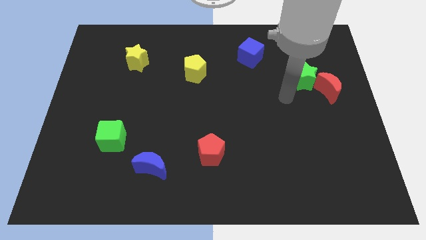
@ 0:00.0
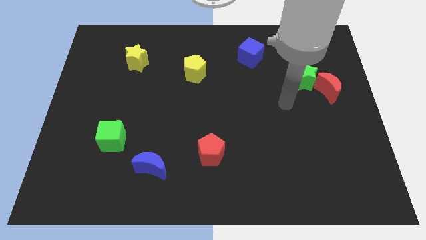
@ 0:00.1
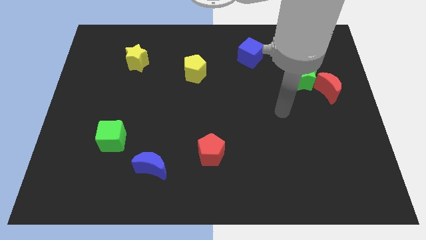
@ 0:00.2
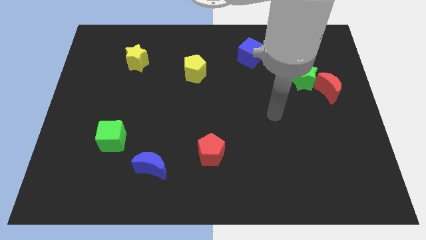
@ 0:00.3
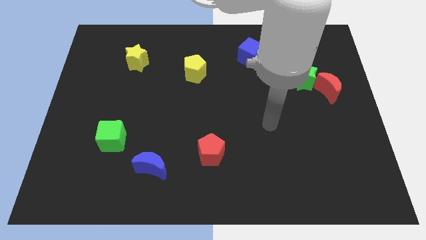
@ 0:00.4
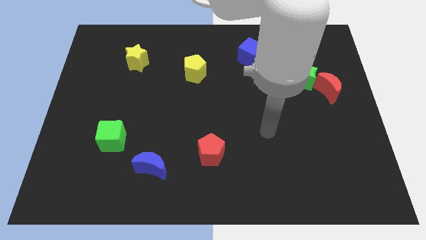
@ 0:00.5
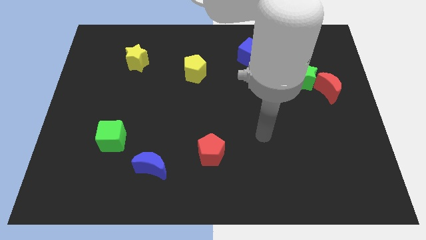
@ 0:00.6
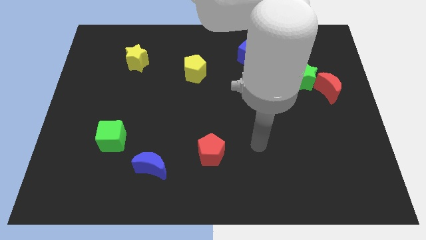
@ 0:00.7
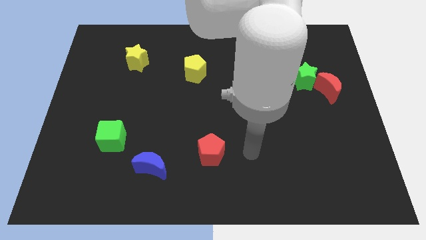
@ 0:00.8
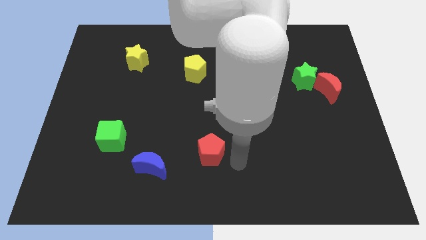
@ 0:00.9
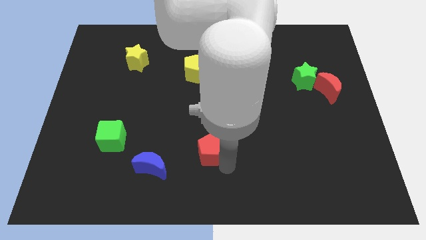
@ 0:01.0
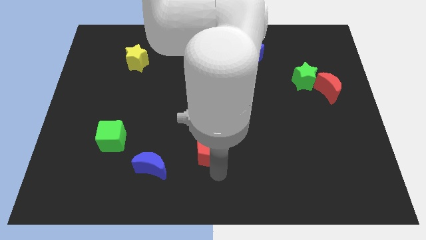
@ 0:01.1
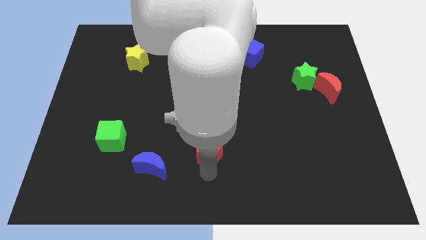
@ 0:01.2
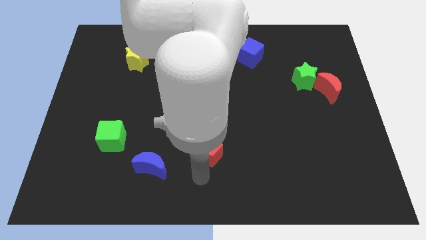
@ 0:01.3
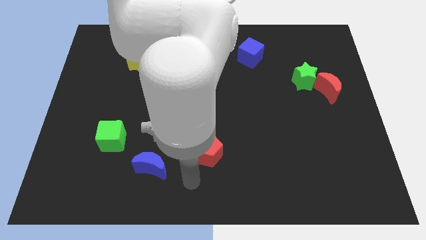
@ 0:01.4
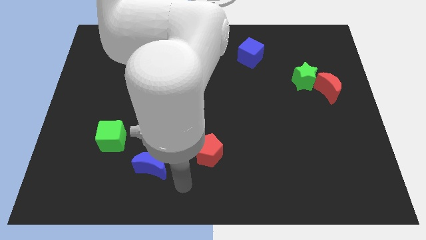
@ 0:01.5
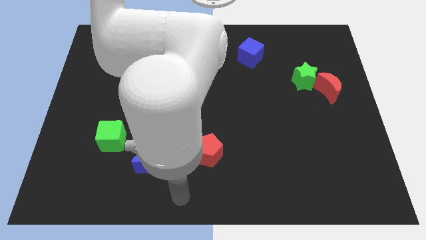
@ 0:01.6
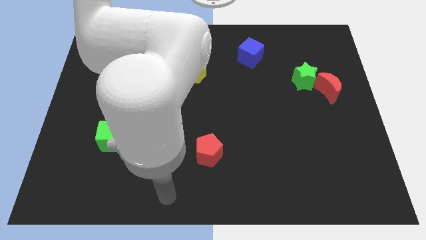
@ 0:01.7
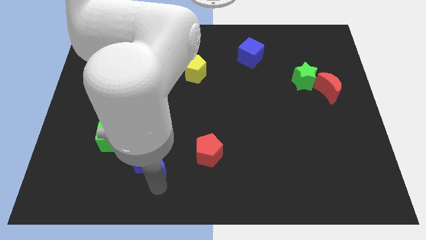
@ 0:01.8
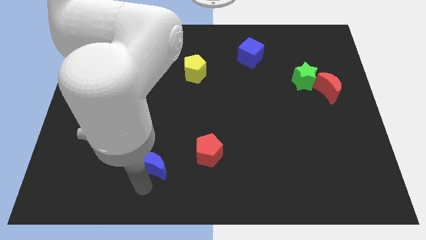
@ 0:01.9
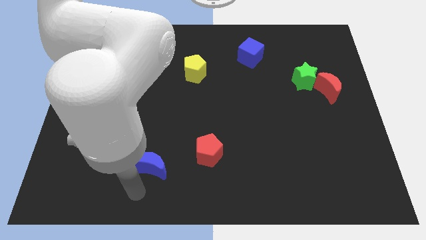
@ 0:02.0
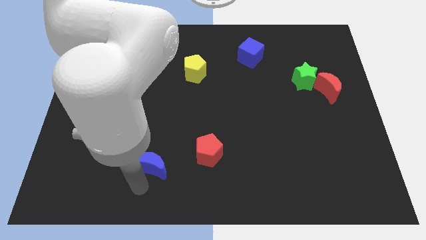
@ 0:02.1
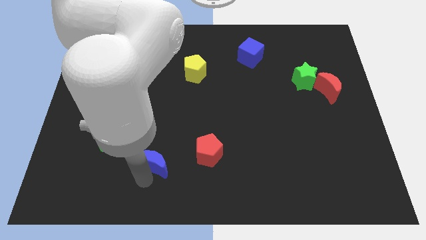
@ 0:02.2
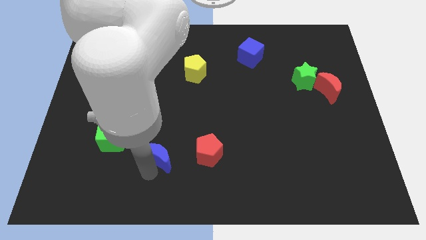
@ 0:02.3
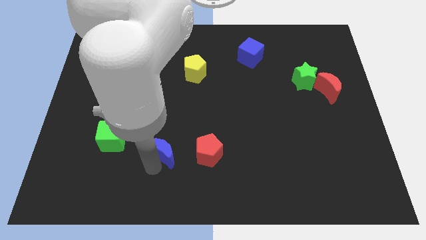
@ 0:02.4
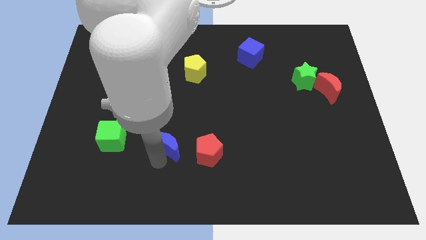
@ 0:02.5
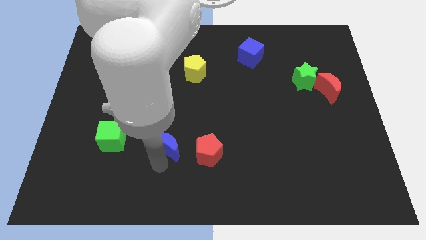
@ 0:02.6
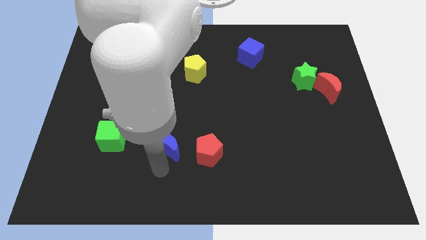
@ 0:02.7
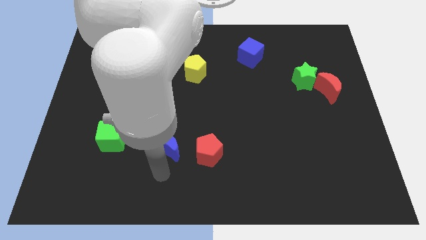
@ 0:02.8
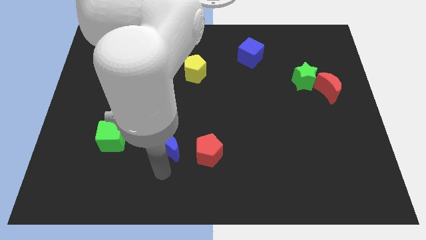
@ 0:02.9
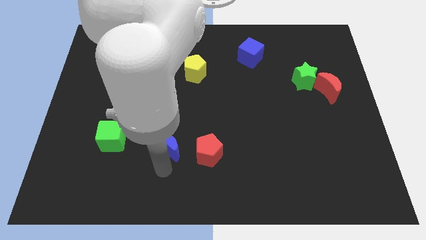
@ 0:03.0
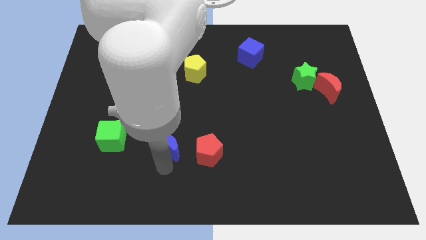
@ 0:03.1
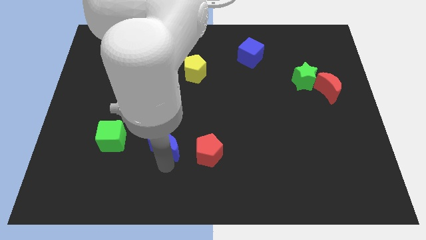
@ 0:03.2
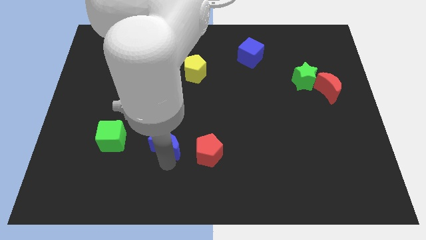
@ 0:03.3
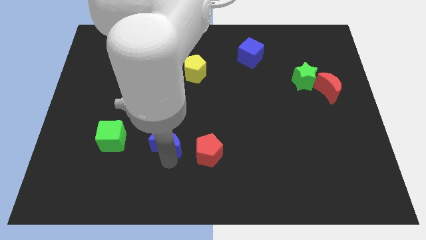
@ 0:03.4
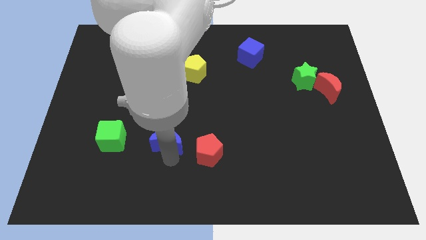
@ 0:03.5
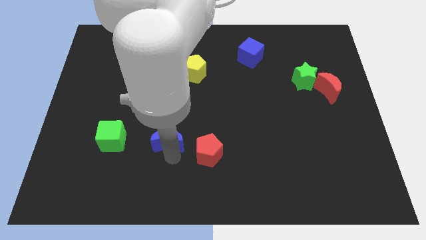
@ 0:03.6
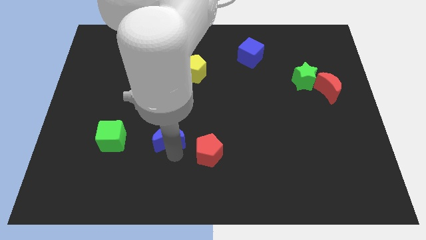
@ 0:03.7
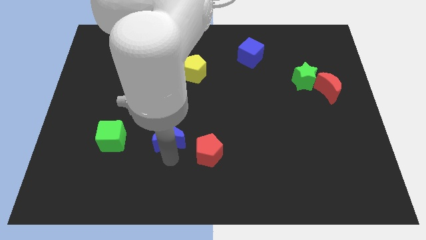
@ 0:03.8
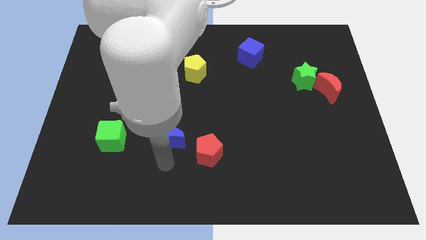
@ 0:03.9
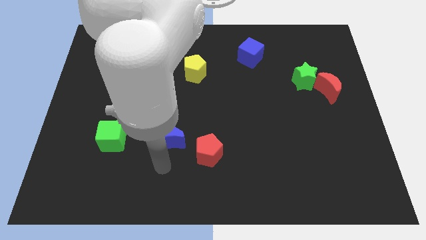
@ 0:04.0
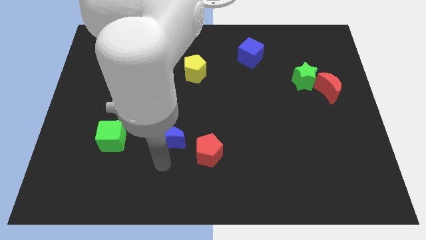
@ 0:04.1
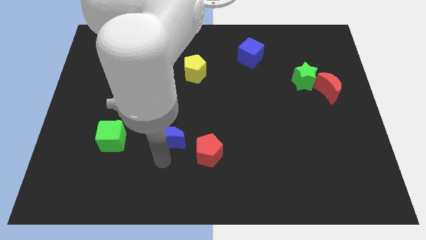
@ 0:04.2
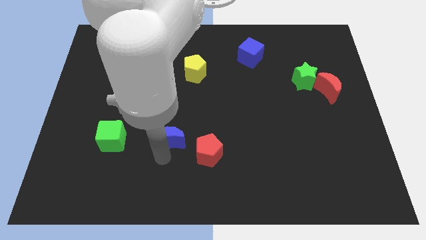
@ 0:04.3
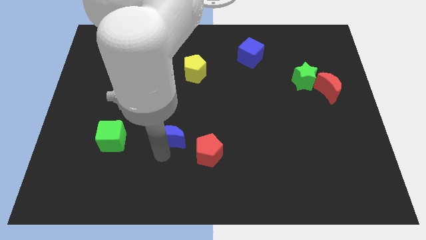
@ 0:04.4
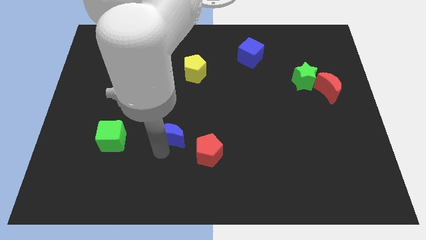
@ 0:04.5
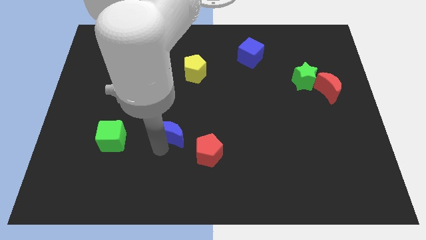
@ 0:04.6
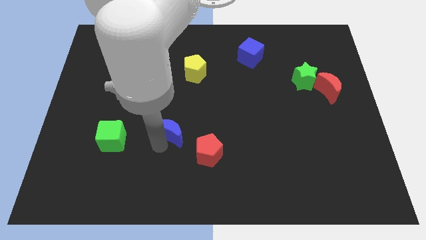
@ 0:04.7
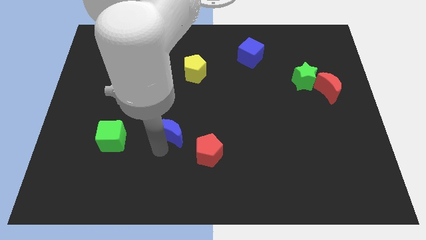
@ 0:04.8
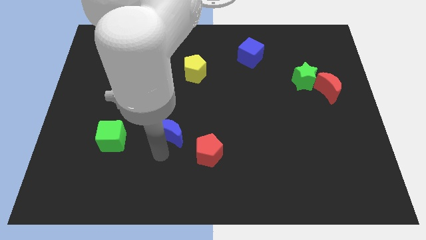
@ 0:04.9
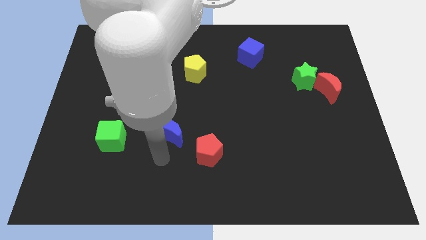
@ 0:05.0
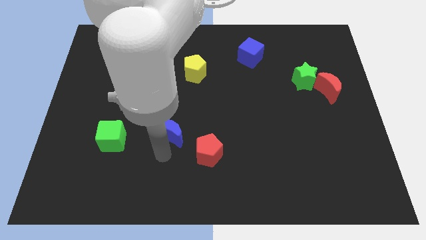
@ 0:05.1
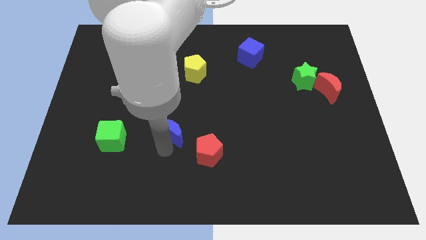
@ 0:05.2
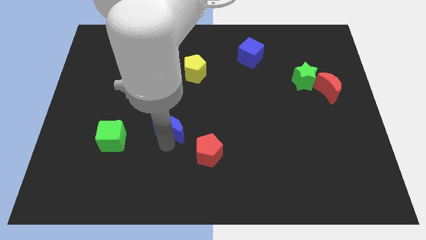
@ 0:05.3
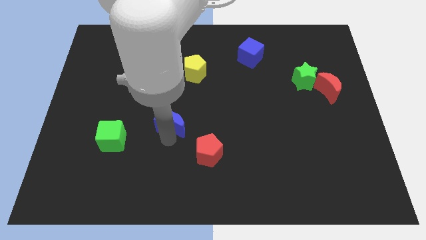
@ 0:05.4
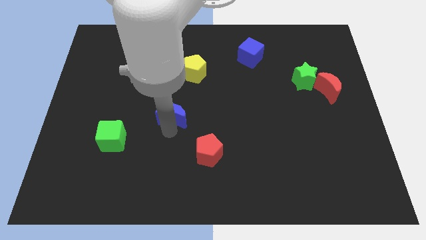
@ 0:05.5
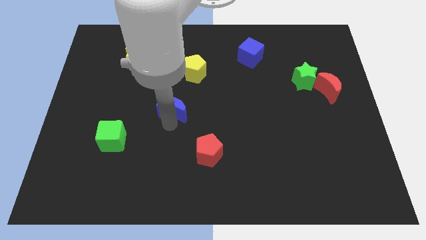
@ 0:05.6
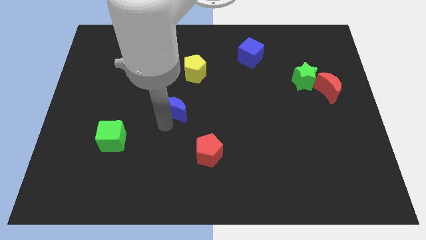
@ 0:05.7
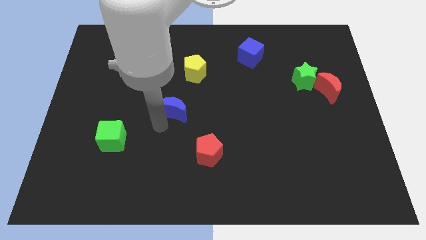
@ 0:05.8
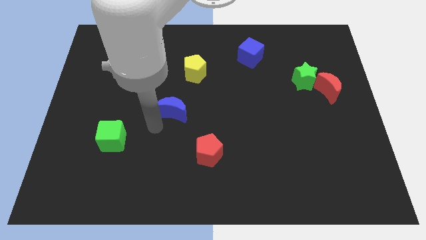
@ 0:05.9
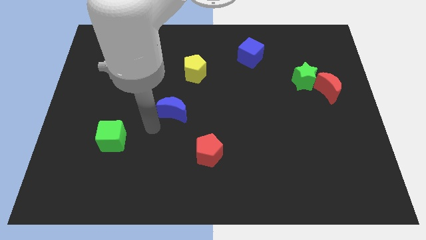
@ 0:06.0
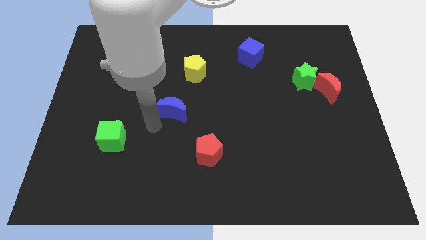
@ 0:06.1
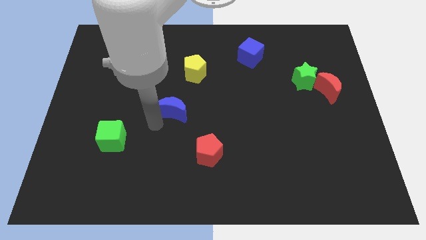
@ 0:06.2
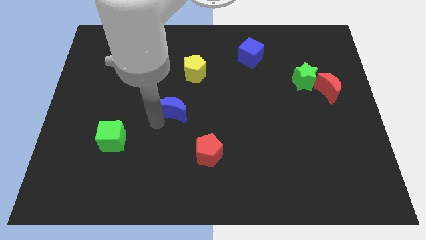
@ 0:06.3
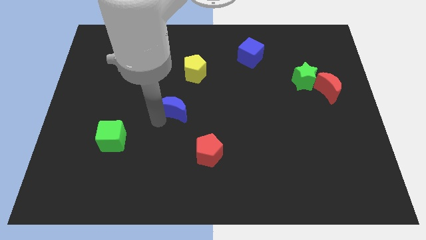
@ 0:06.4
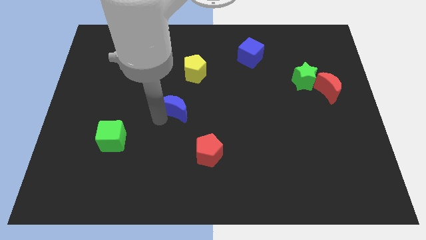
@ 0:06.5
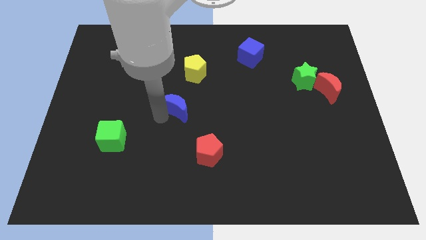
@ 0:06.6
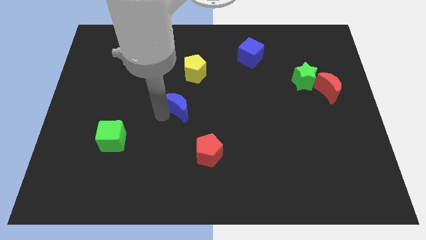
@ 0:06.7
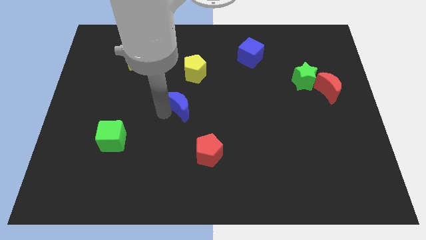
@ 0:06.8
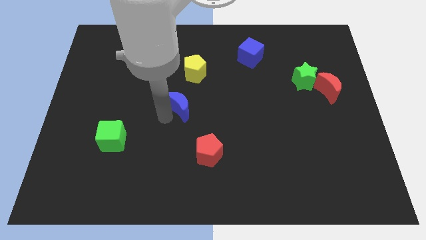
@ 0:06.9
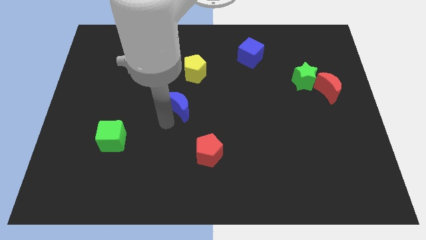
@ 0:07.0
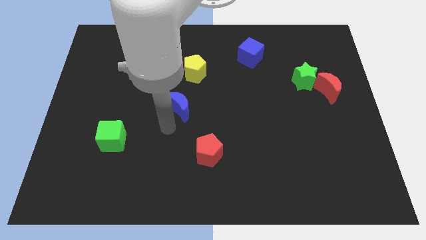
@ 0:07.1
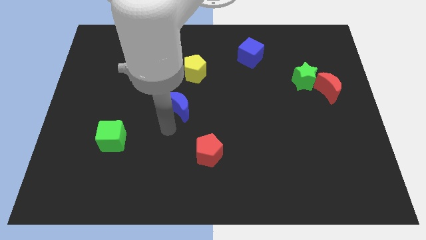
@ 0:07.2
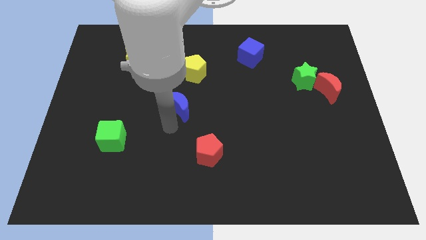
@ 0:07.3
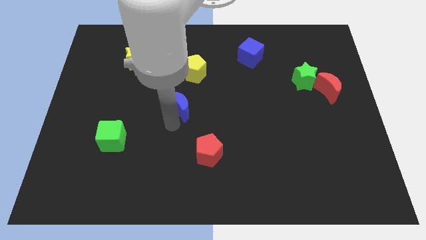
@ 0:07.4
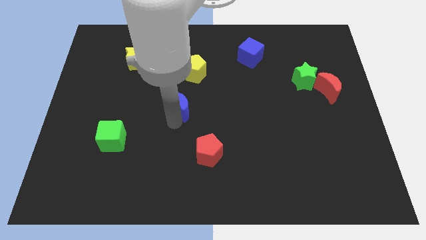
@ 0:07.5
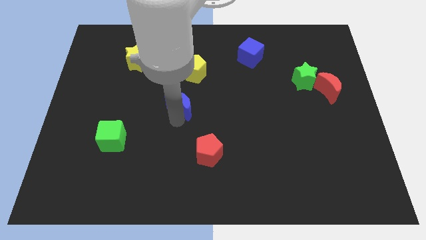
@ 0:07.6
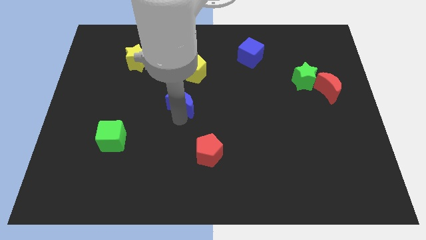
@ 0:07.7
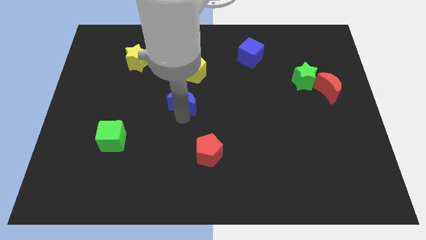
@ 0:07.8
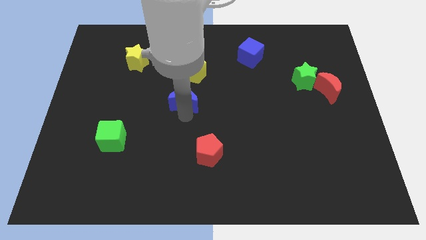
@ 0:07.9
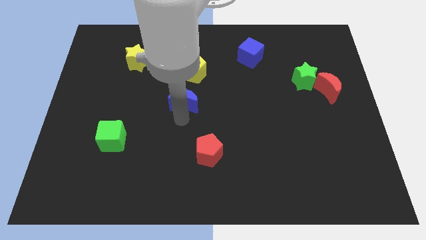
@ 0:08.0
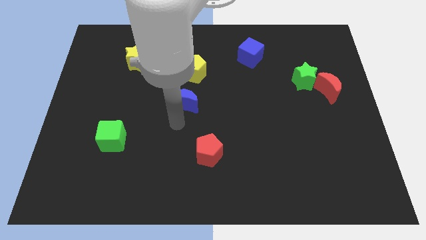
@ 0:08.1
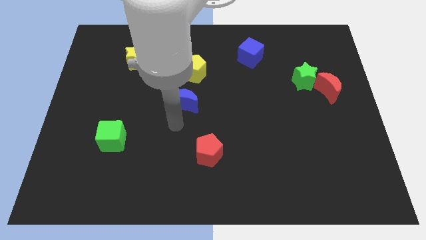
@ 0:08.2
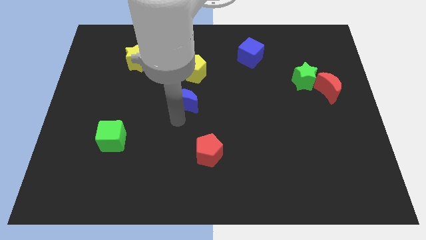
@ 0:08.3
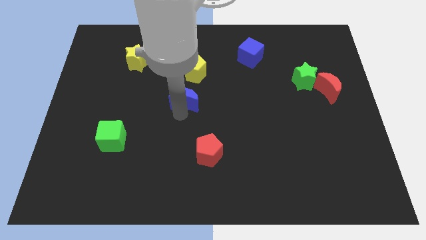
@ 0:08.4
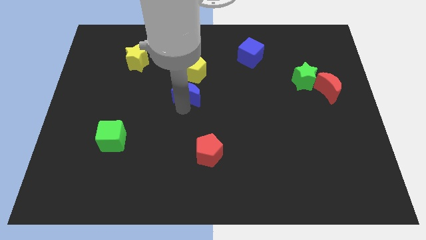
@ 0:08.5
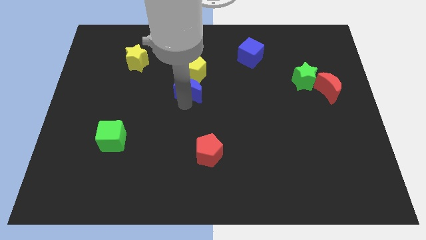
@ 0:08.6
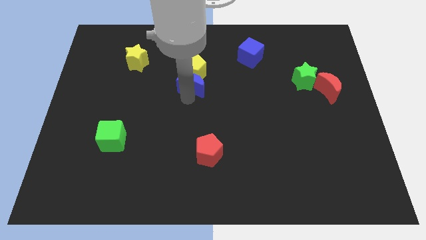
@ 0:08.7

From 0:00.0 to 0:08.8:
put the blue moon to the yellow pentagon
